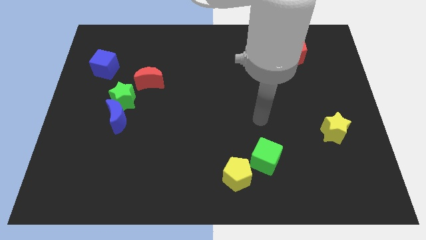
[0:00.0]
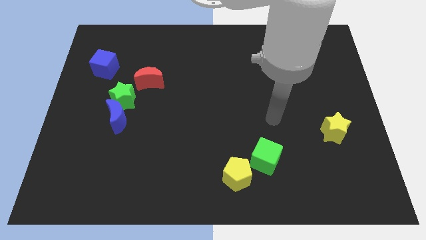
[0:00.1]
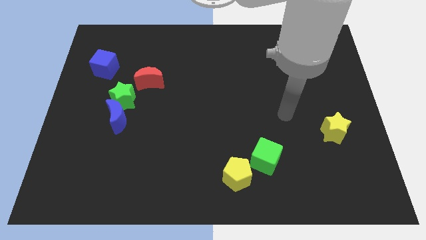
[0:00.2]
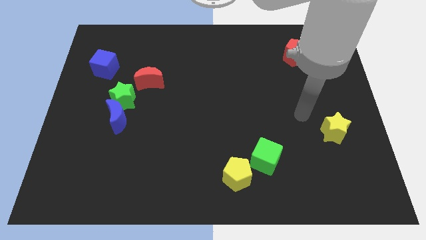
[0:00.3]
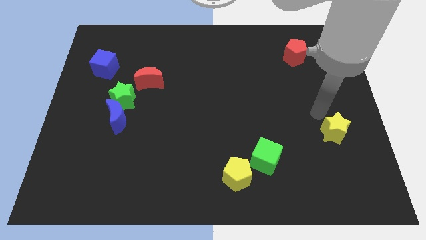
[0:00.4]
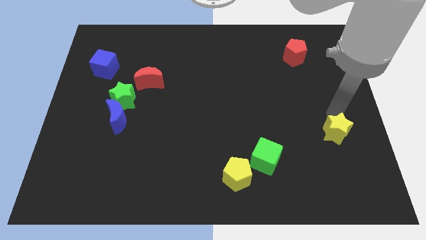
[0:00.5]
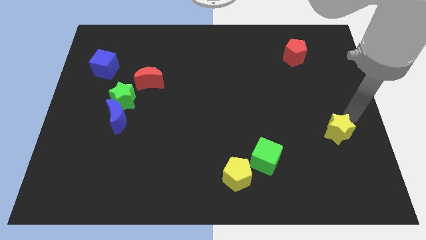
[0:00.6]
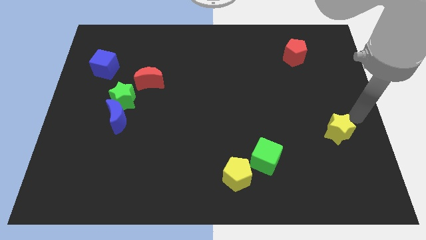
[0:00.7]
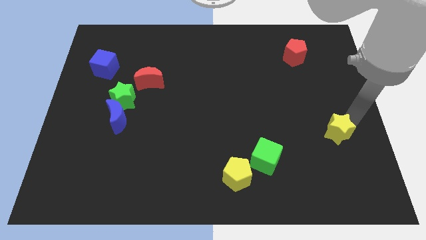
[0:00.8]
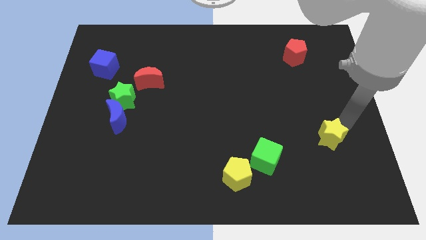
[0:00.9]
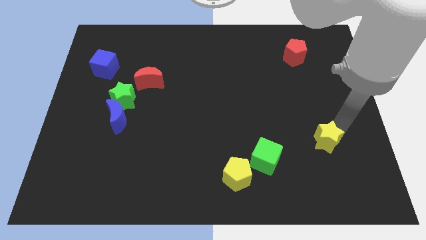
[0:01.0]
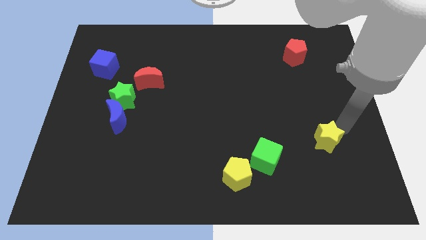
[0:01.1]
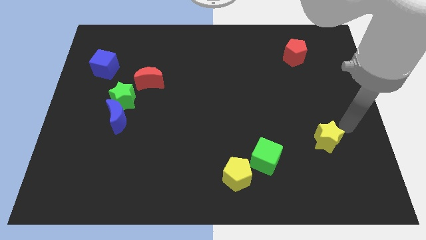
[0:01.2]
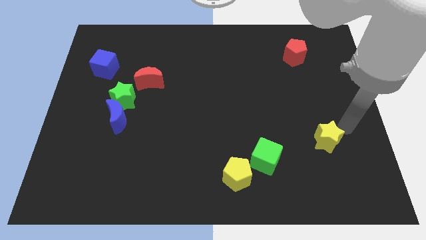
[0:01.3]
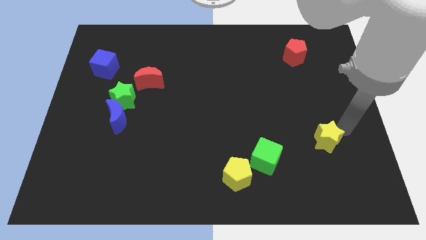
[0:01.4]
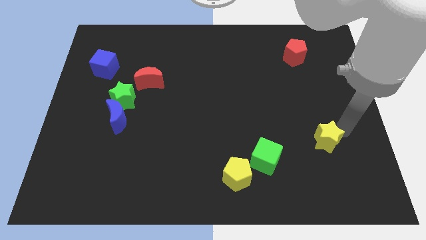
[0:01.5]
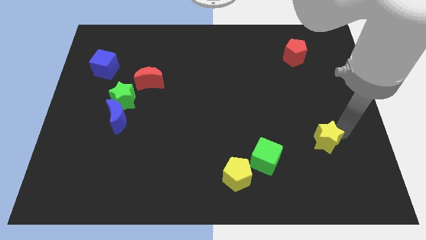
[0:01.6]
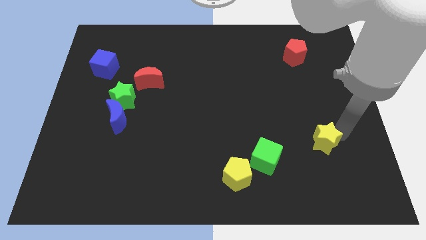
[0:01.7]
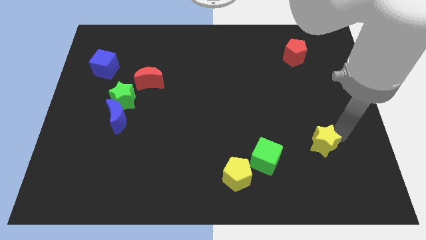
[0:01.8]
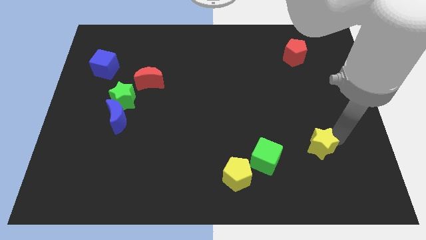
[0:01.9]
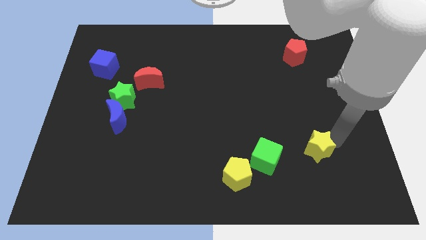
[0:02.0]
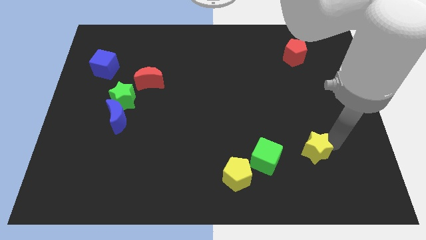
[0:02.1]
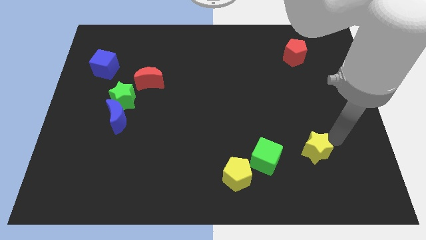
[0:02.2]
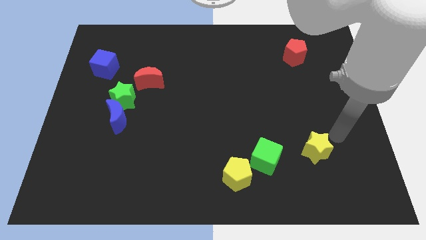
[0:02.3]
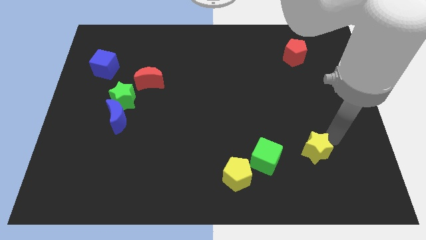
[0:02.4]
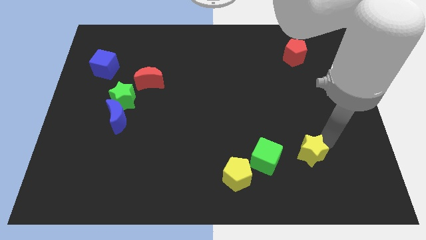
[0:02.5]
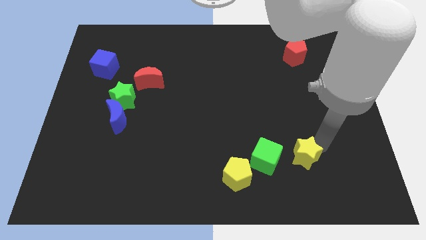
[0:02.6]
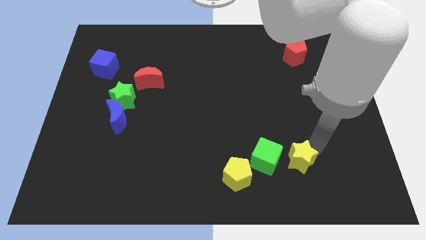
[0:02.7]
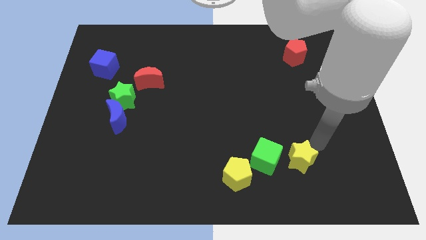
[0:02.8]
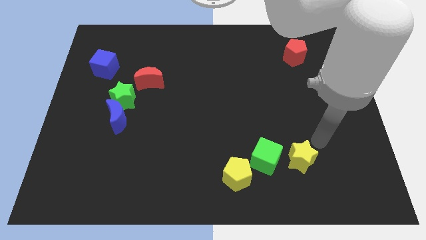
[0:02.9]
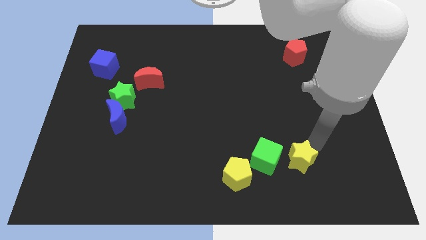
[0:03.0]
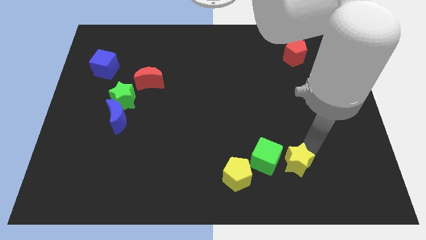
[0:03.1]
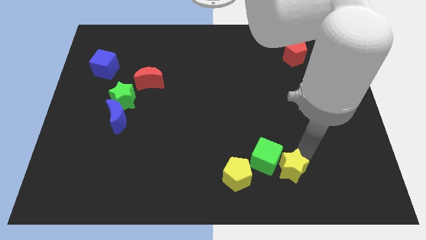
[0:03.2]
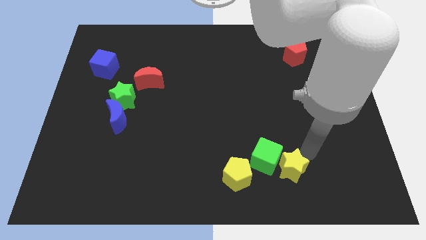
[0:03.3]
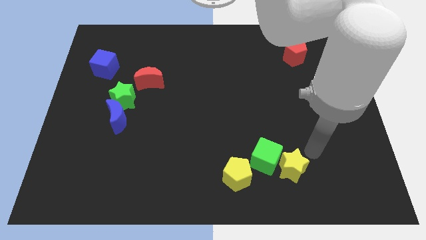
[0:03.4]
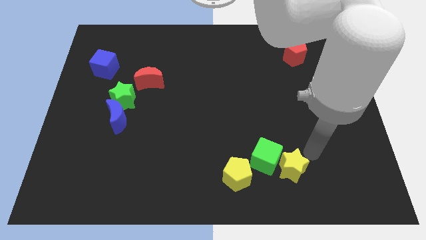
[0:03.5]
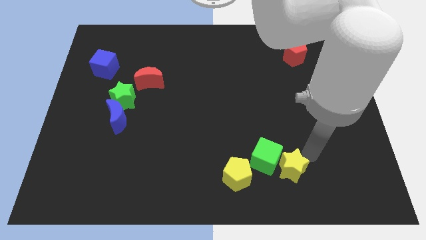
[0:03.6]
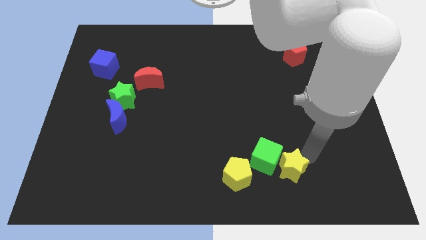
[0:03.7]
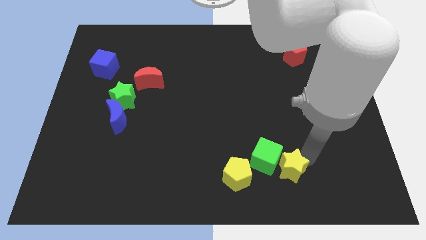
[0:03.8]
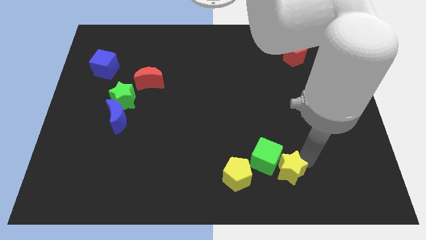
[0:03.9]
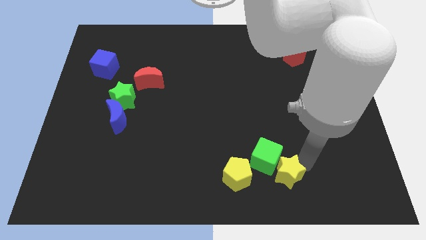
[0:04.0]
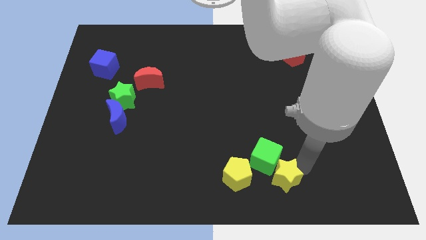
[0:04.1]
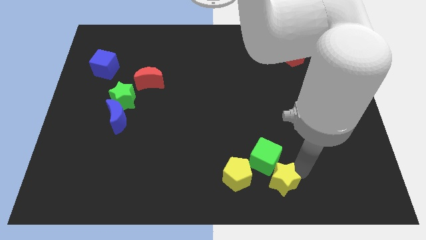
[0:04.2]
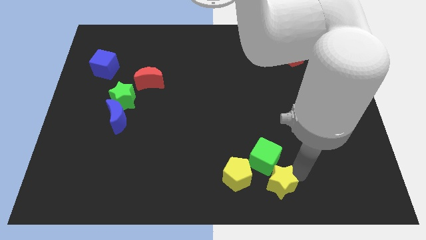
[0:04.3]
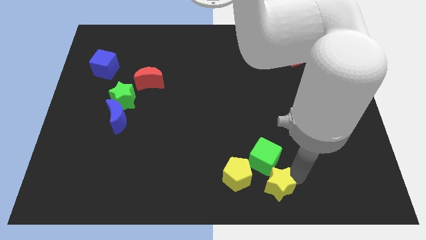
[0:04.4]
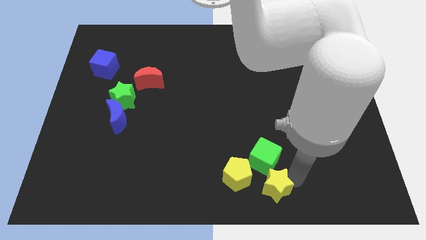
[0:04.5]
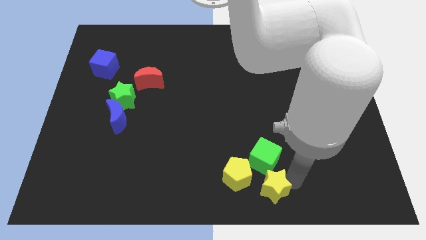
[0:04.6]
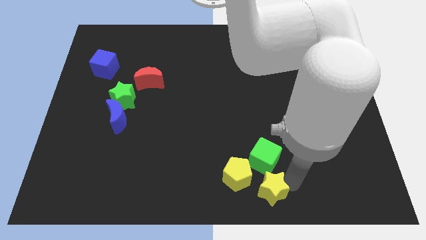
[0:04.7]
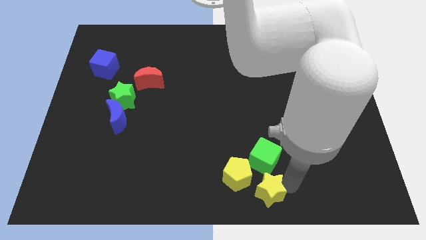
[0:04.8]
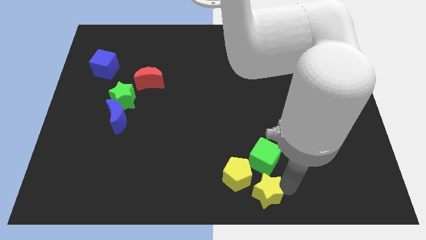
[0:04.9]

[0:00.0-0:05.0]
put the yellow star to the bottom left of the green cube

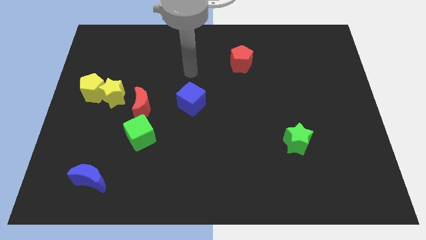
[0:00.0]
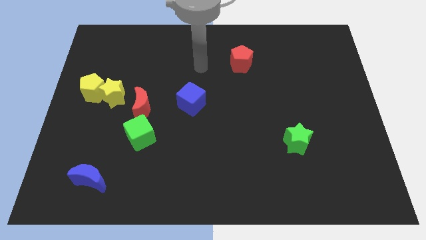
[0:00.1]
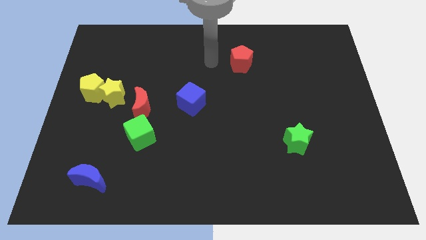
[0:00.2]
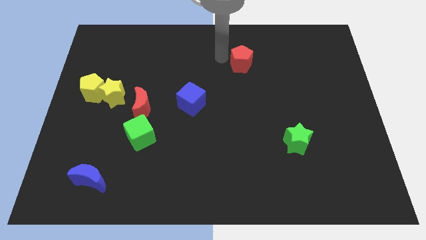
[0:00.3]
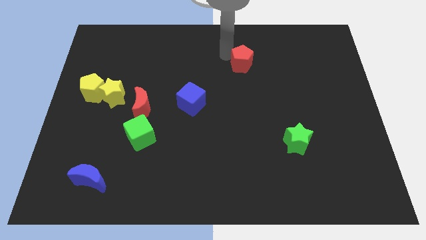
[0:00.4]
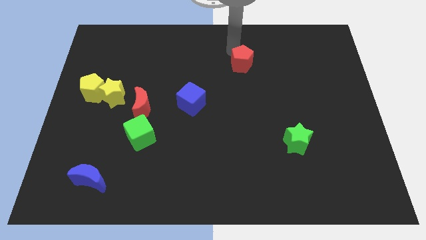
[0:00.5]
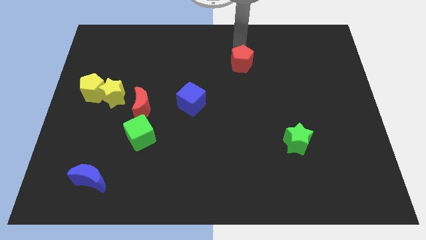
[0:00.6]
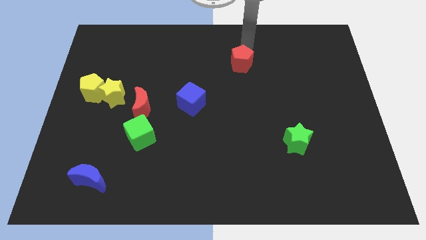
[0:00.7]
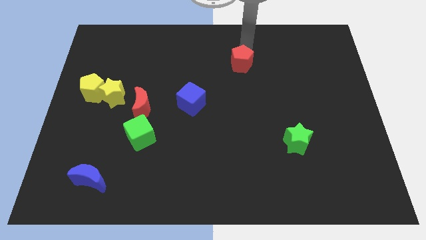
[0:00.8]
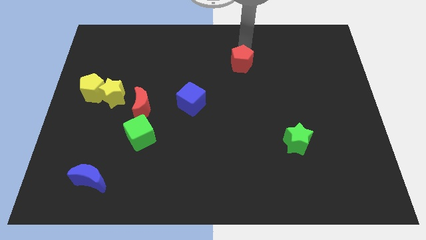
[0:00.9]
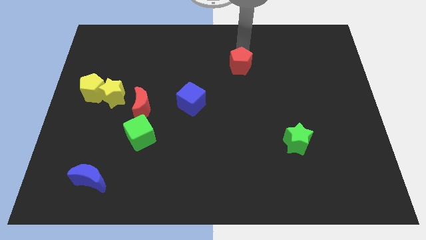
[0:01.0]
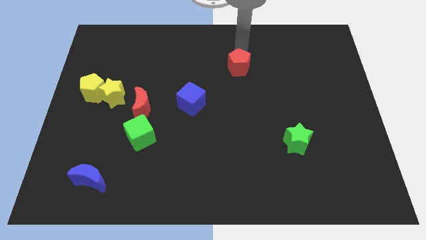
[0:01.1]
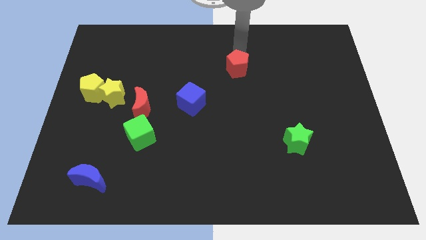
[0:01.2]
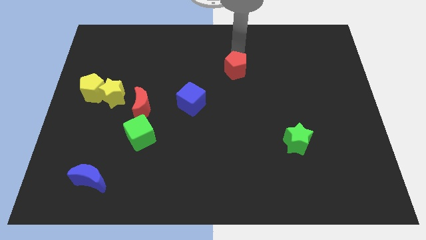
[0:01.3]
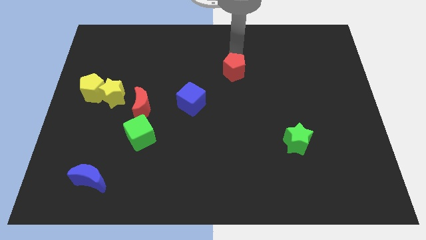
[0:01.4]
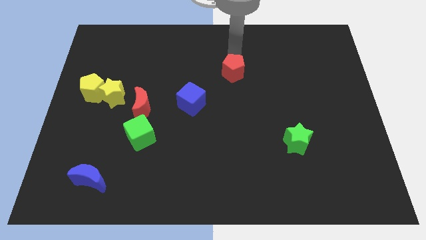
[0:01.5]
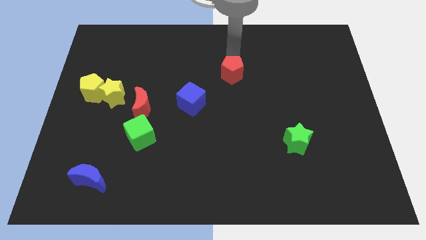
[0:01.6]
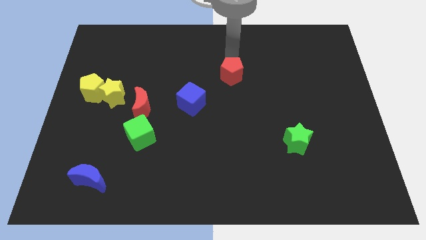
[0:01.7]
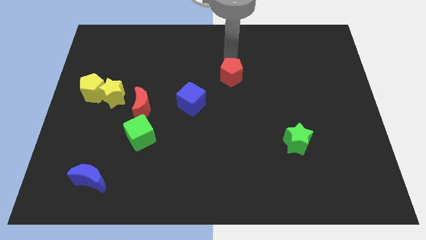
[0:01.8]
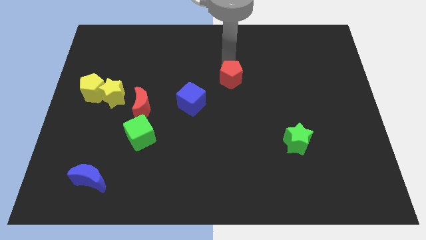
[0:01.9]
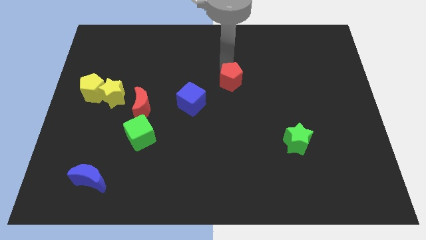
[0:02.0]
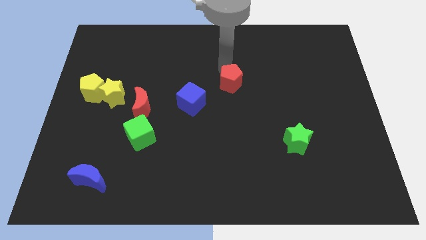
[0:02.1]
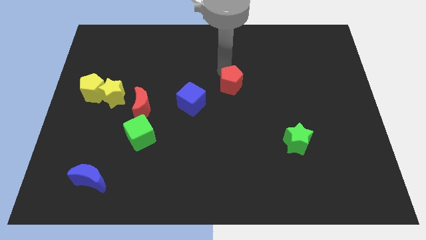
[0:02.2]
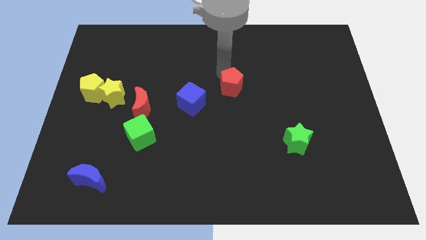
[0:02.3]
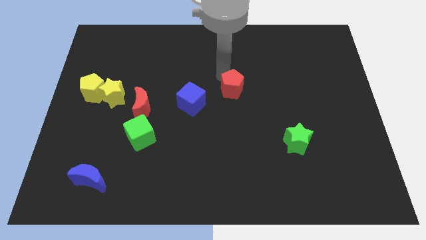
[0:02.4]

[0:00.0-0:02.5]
slide the red pentagon just right of the blue cube
